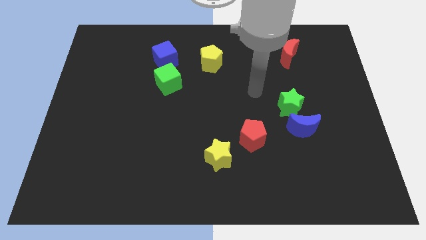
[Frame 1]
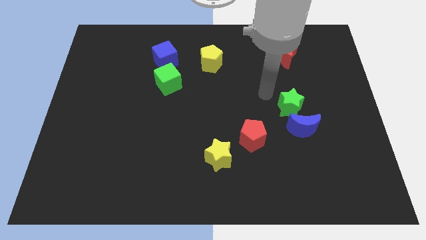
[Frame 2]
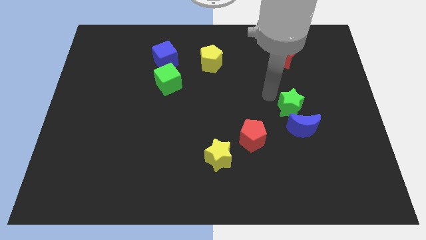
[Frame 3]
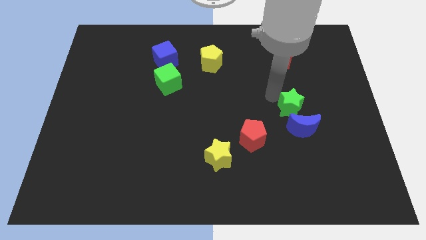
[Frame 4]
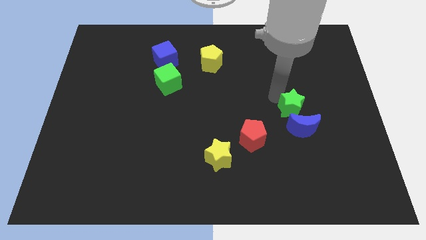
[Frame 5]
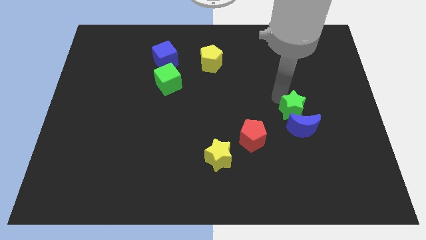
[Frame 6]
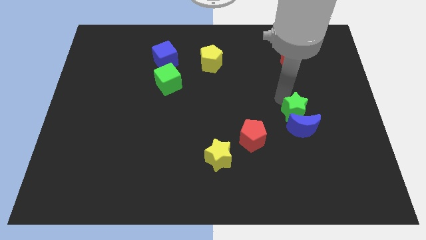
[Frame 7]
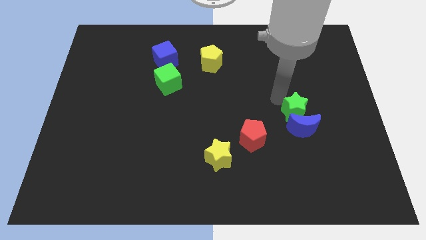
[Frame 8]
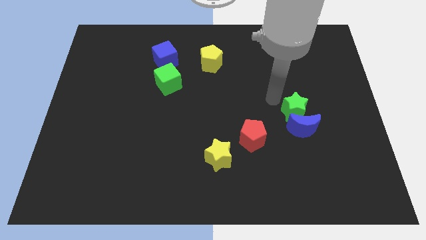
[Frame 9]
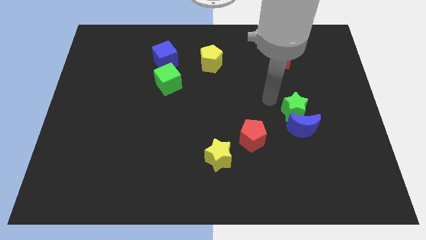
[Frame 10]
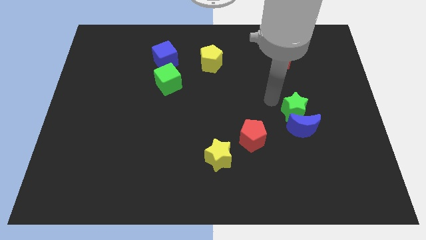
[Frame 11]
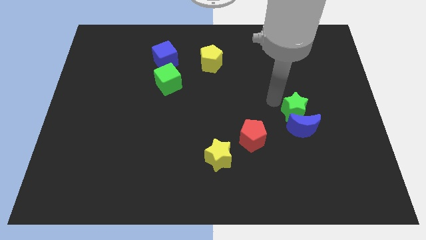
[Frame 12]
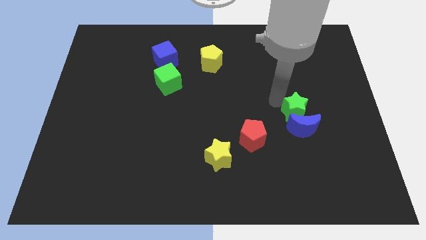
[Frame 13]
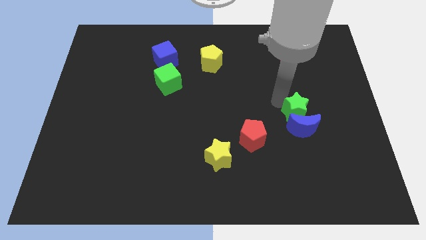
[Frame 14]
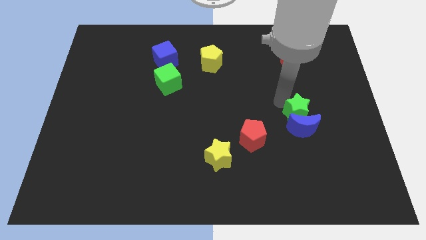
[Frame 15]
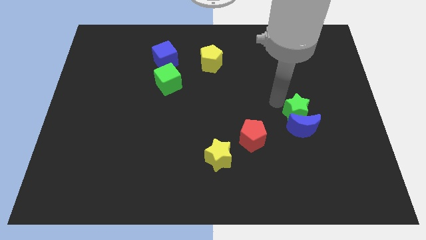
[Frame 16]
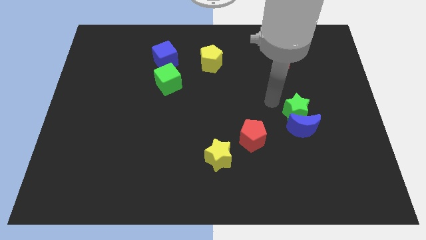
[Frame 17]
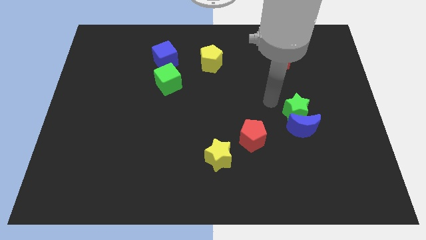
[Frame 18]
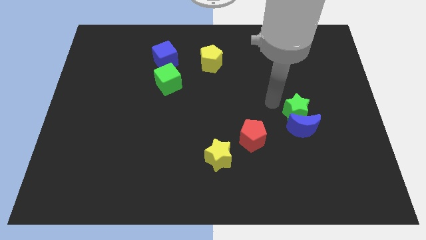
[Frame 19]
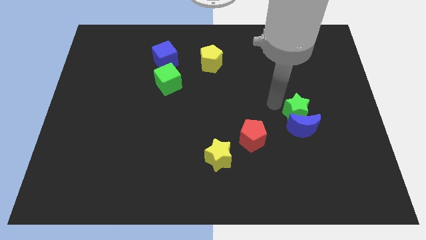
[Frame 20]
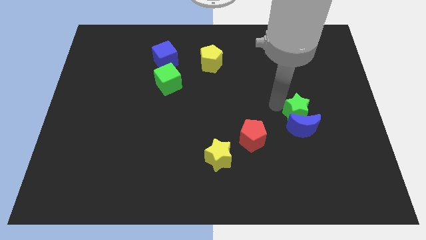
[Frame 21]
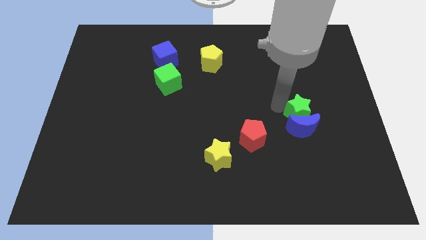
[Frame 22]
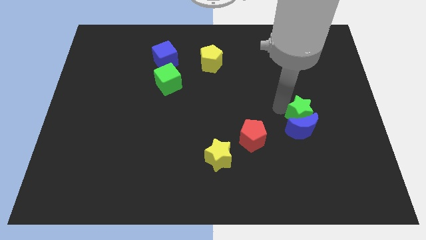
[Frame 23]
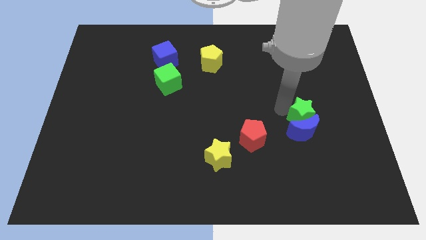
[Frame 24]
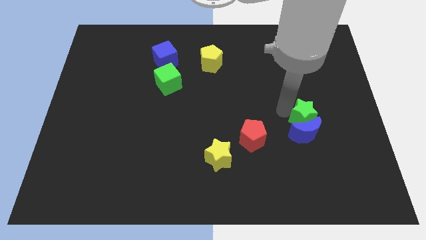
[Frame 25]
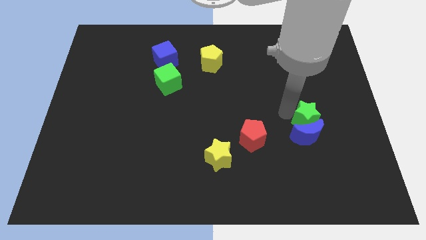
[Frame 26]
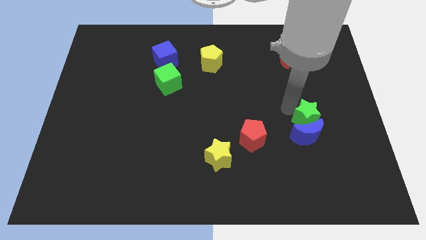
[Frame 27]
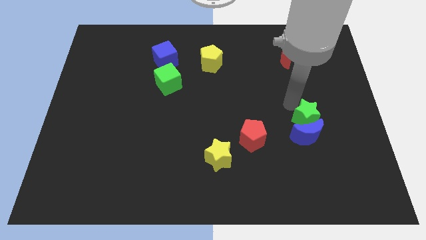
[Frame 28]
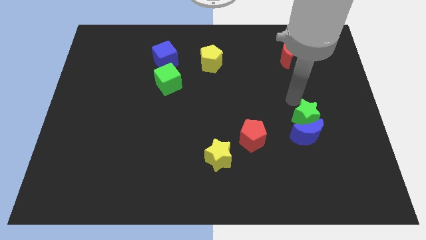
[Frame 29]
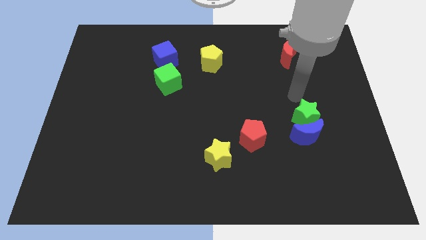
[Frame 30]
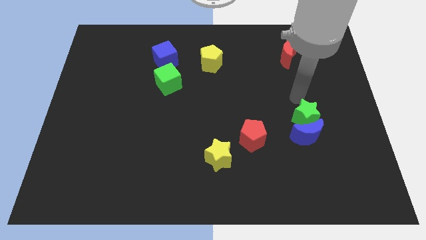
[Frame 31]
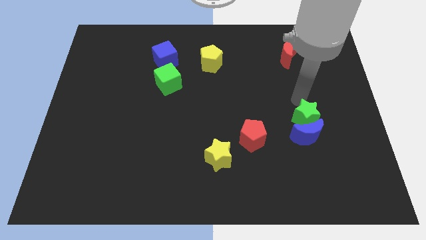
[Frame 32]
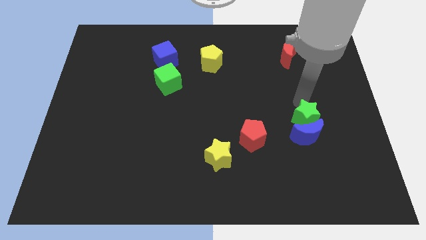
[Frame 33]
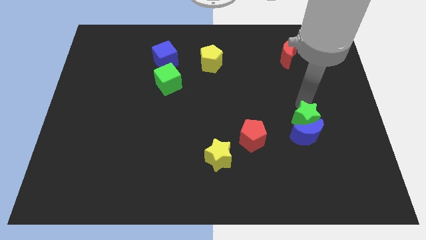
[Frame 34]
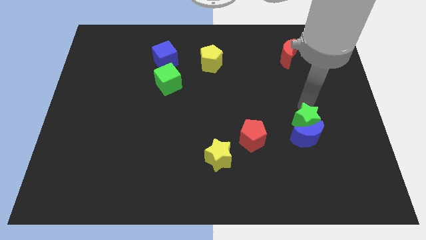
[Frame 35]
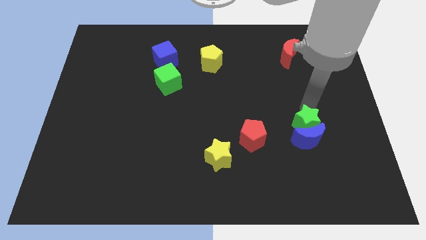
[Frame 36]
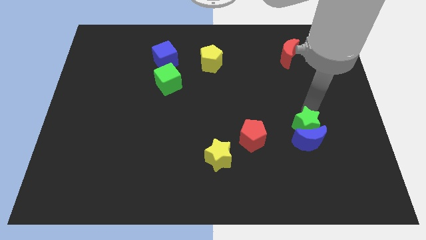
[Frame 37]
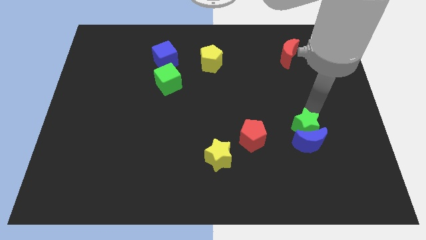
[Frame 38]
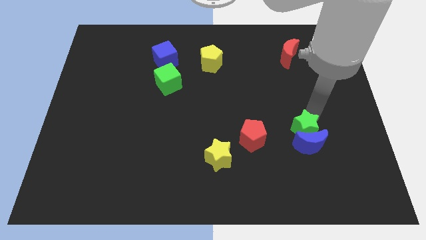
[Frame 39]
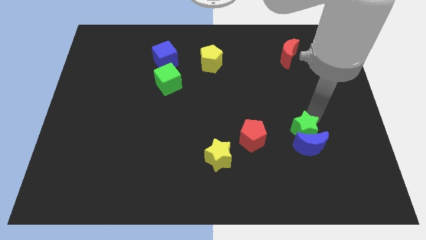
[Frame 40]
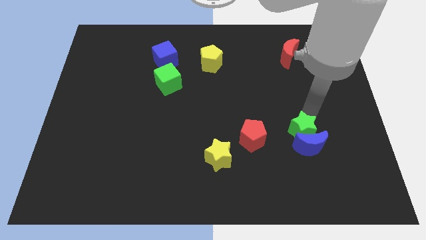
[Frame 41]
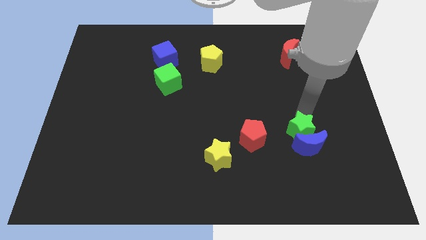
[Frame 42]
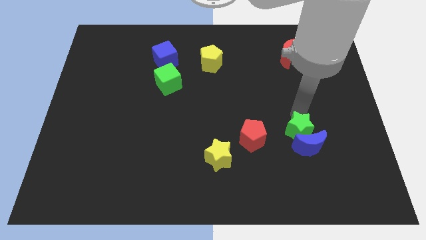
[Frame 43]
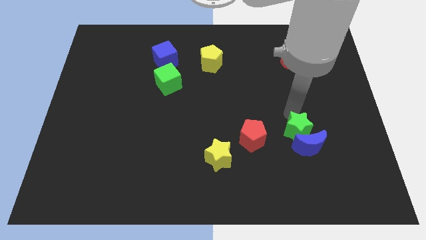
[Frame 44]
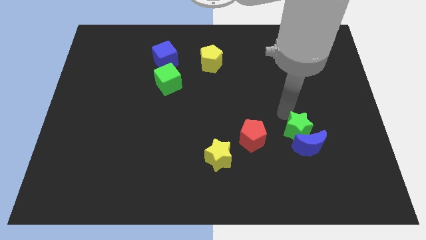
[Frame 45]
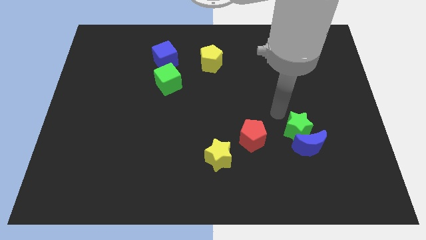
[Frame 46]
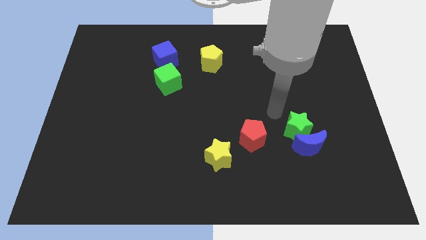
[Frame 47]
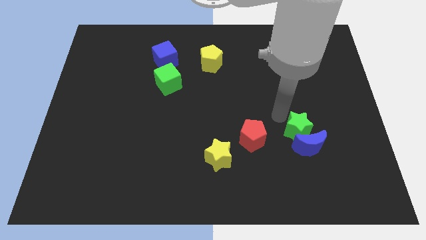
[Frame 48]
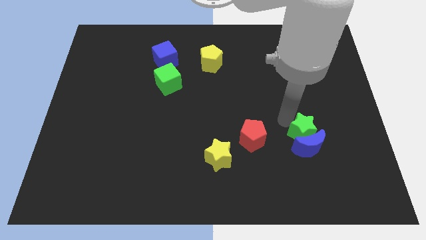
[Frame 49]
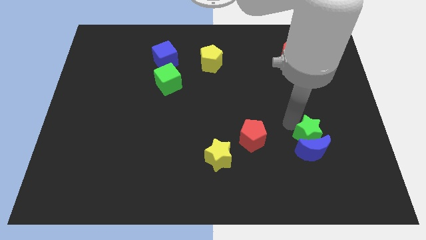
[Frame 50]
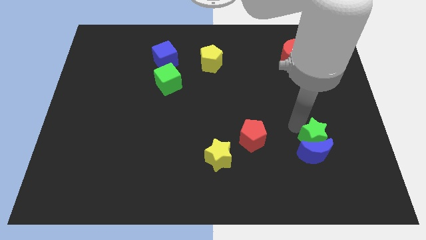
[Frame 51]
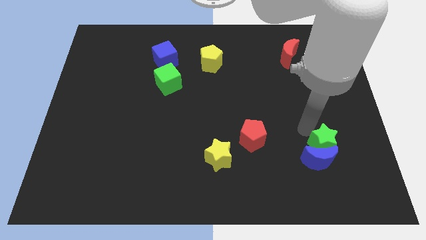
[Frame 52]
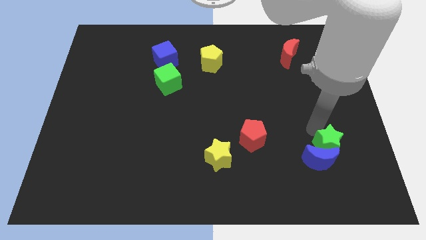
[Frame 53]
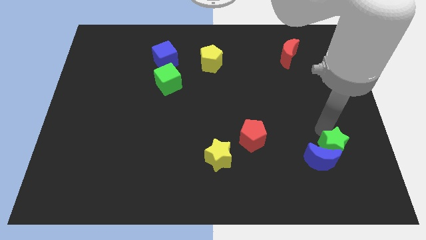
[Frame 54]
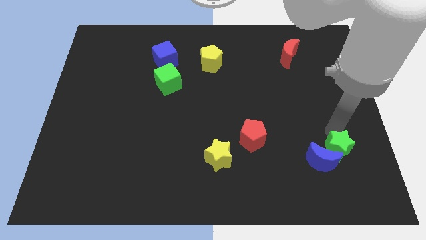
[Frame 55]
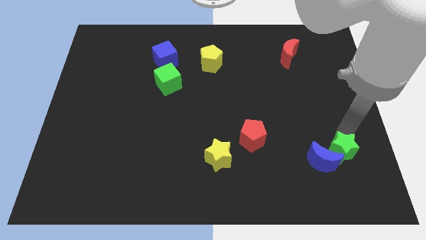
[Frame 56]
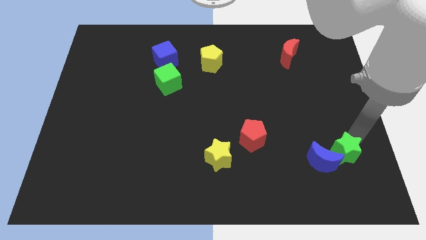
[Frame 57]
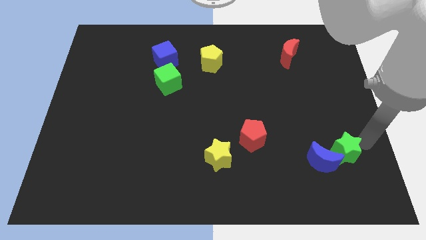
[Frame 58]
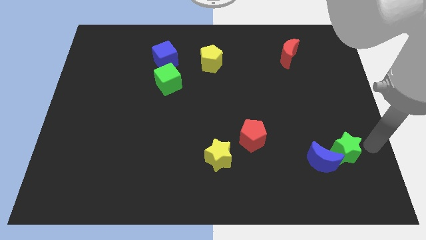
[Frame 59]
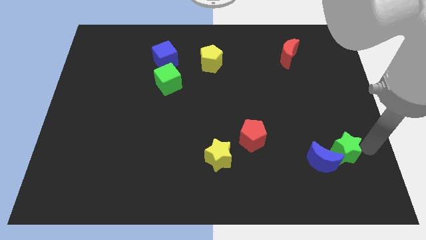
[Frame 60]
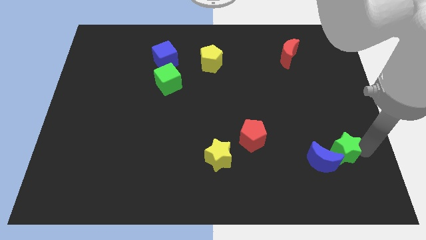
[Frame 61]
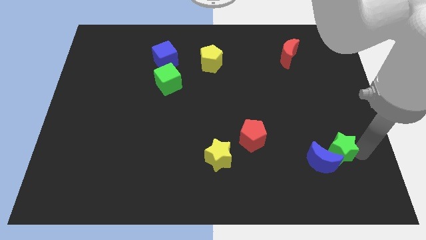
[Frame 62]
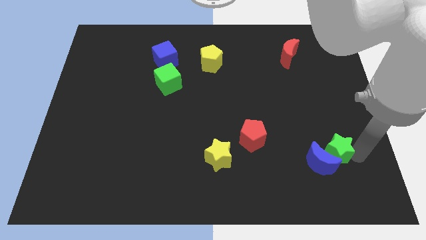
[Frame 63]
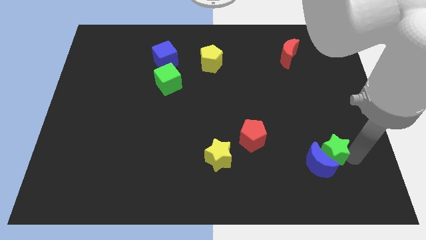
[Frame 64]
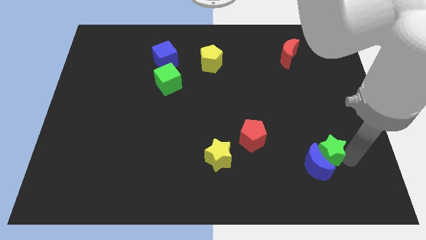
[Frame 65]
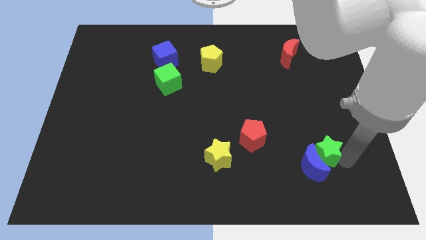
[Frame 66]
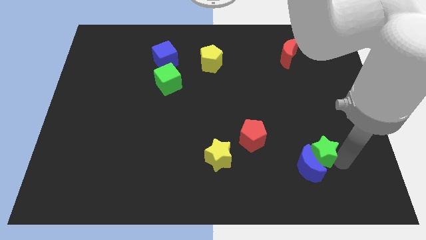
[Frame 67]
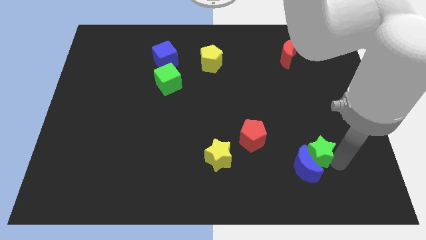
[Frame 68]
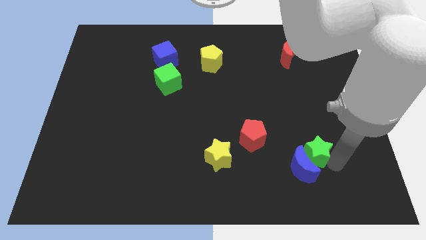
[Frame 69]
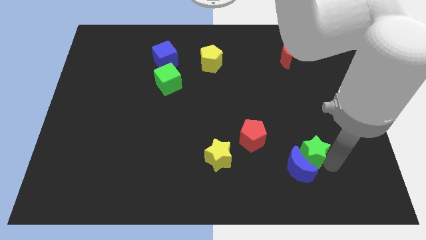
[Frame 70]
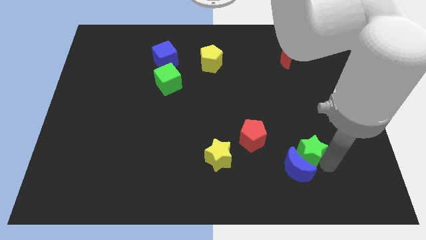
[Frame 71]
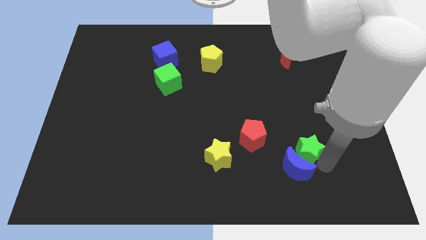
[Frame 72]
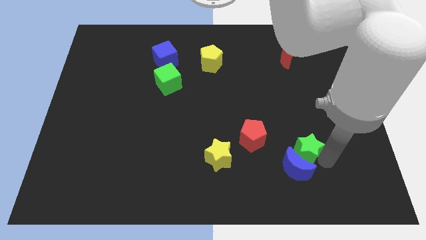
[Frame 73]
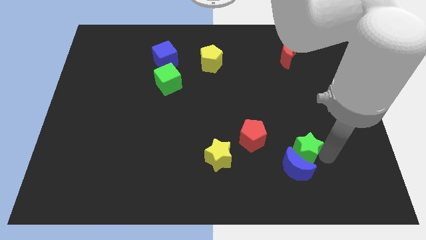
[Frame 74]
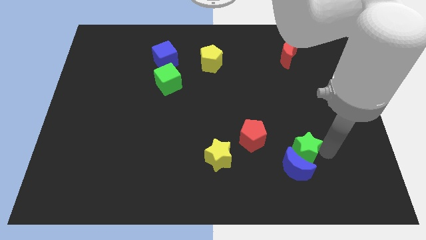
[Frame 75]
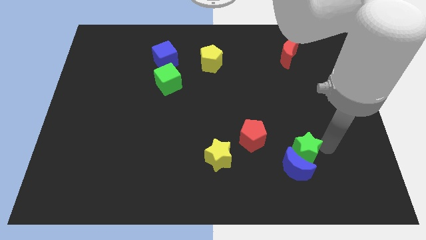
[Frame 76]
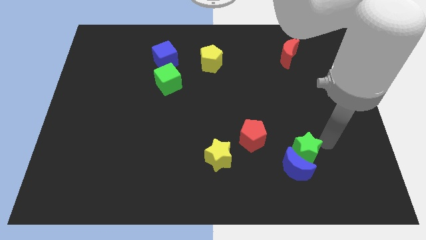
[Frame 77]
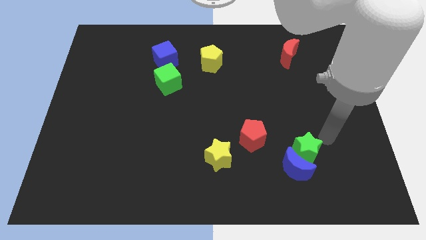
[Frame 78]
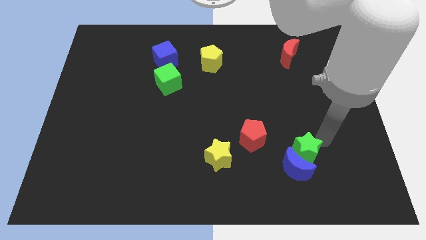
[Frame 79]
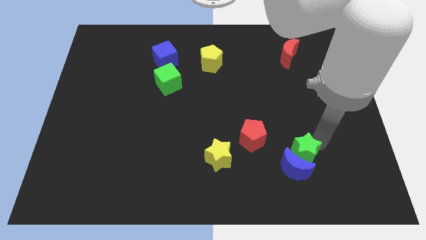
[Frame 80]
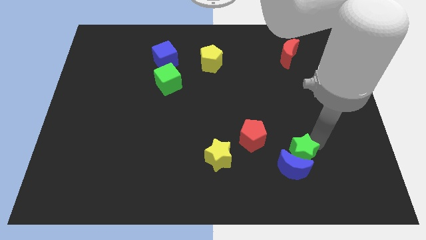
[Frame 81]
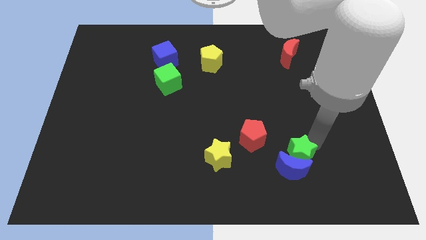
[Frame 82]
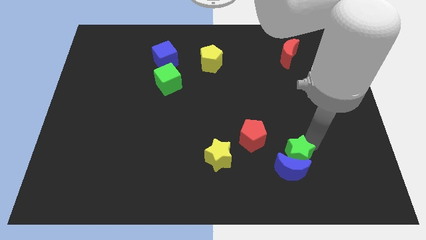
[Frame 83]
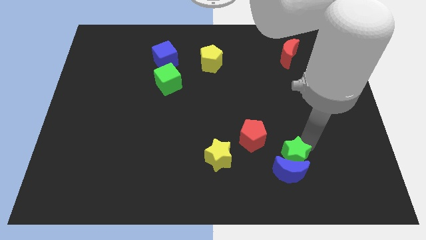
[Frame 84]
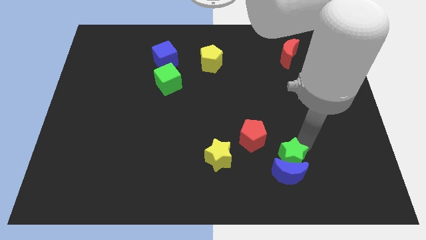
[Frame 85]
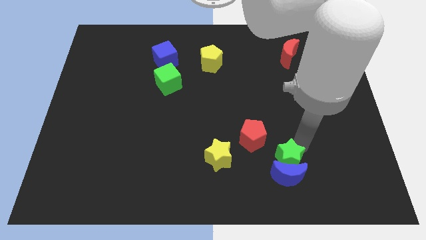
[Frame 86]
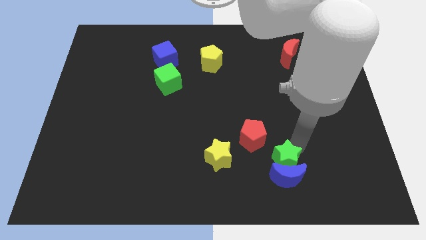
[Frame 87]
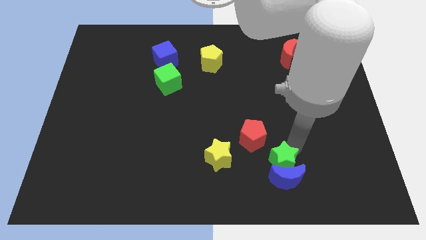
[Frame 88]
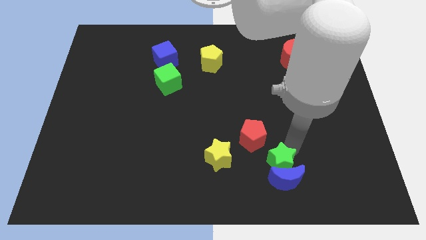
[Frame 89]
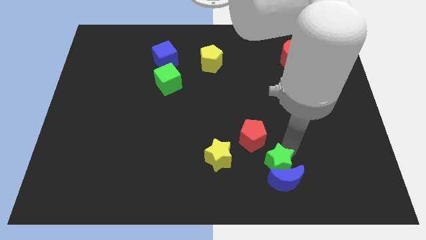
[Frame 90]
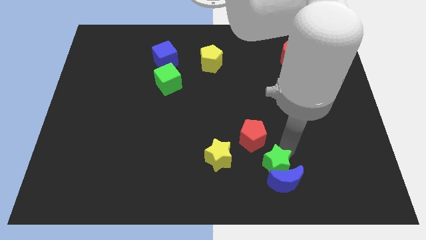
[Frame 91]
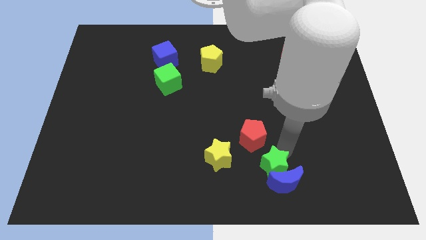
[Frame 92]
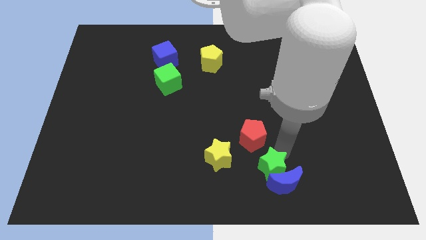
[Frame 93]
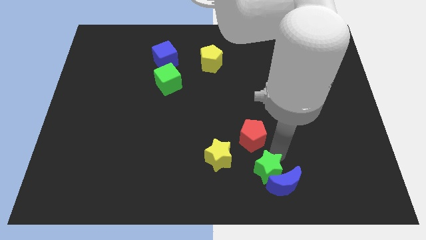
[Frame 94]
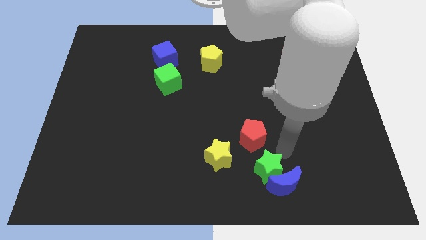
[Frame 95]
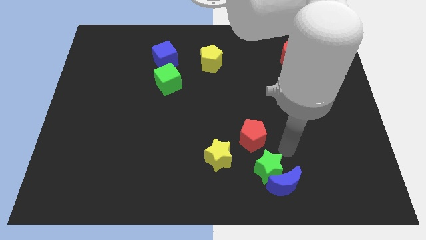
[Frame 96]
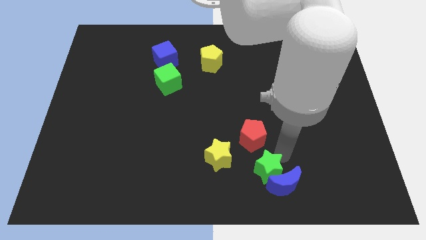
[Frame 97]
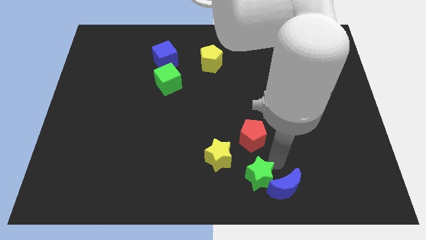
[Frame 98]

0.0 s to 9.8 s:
slide the green star to the bottom side
